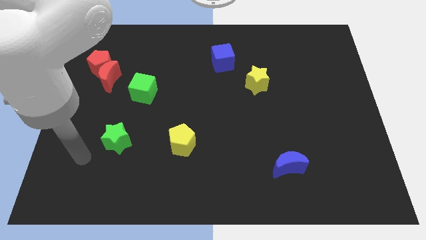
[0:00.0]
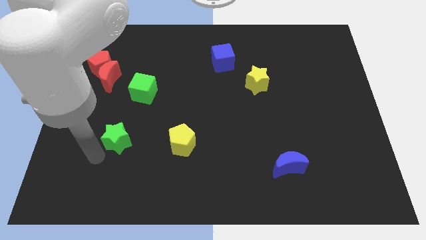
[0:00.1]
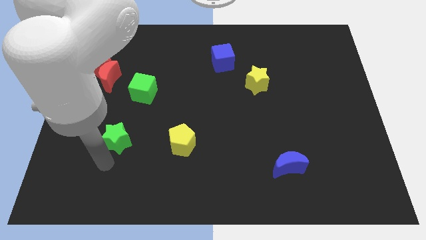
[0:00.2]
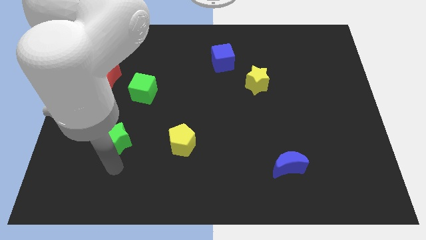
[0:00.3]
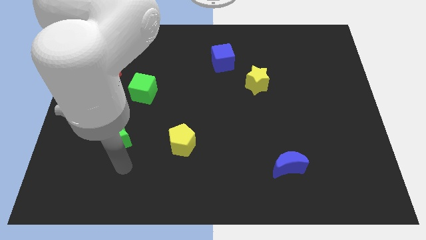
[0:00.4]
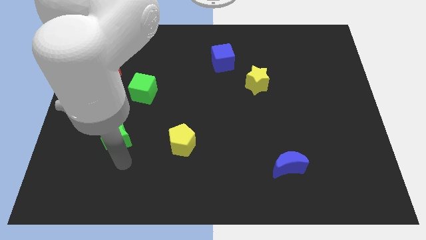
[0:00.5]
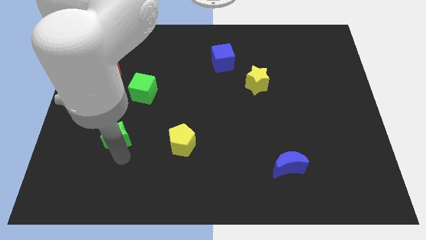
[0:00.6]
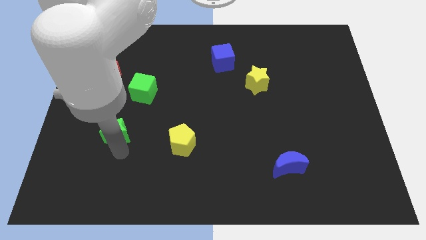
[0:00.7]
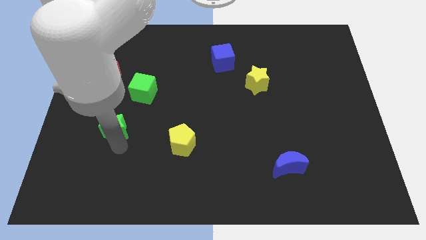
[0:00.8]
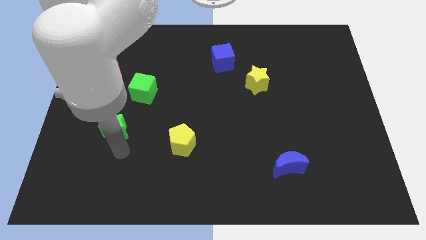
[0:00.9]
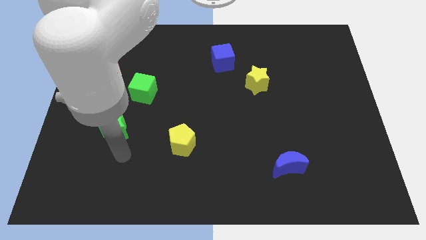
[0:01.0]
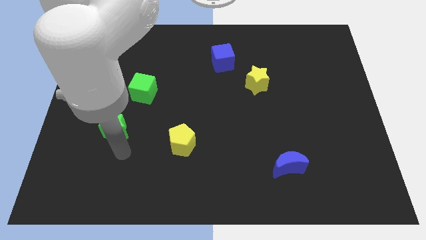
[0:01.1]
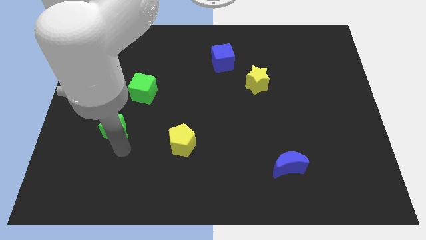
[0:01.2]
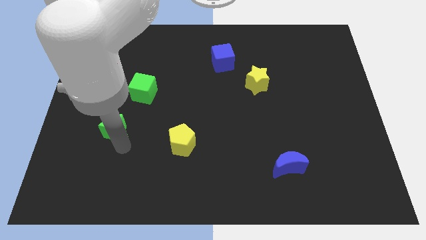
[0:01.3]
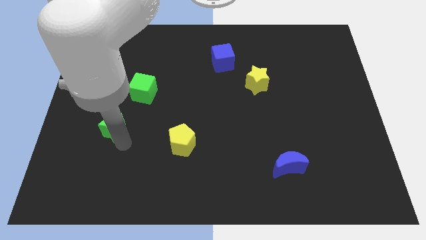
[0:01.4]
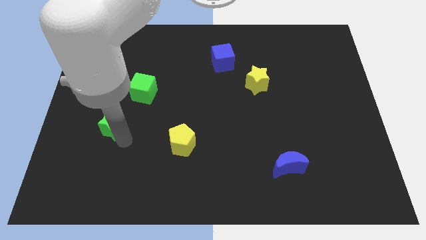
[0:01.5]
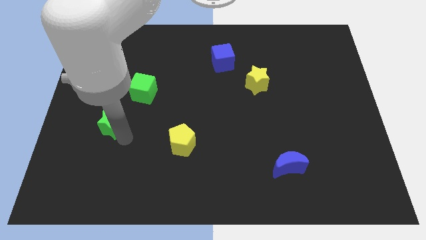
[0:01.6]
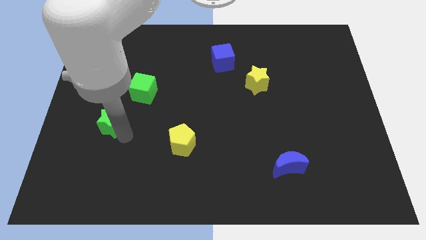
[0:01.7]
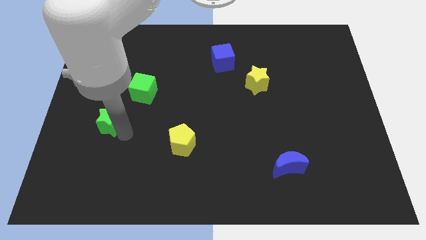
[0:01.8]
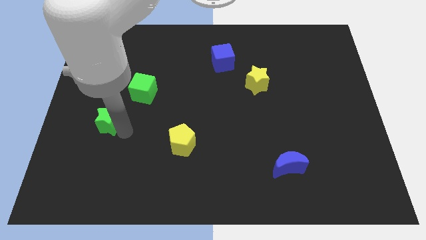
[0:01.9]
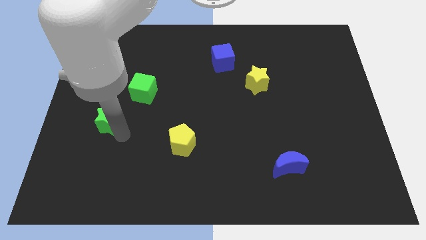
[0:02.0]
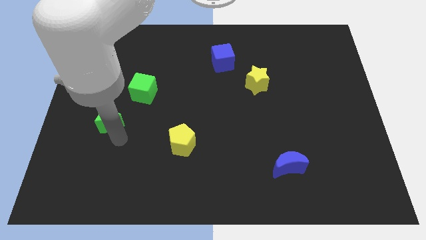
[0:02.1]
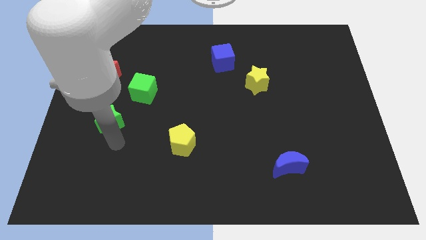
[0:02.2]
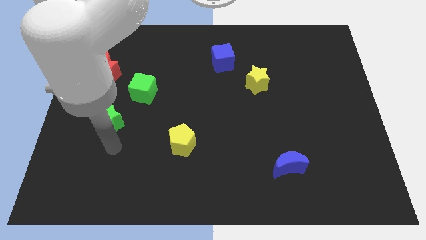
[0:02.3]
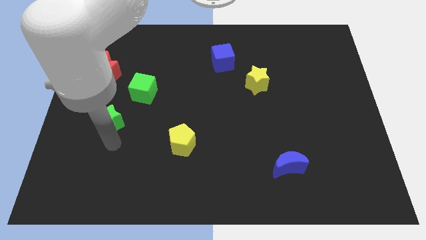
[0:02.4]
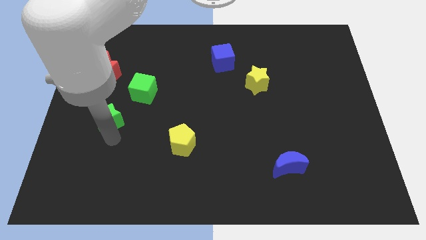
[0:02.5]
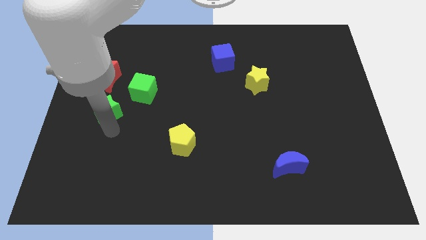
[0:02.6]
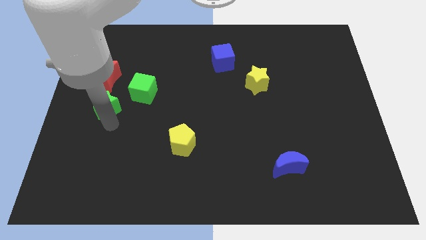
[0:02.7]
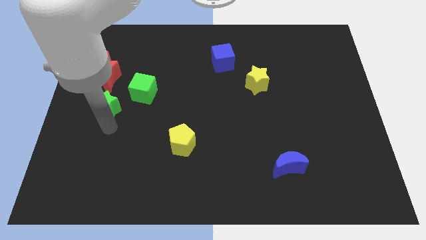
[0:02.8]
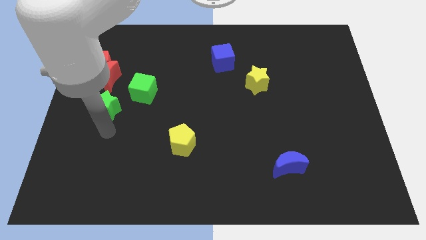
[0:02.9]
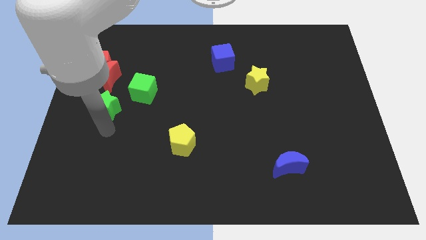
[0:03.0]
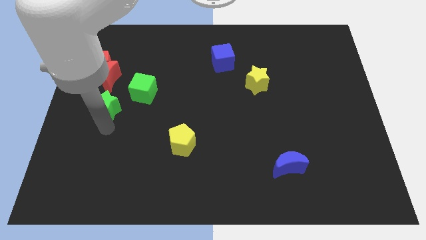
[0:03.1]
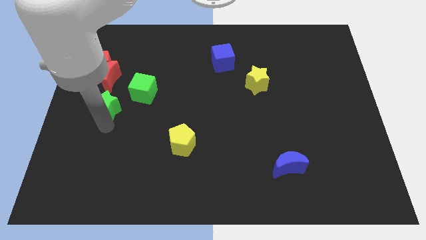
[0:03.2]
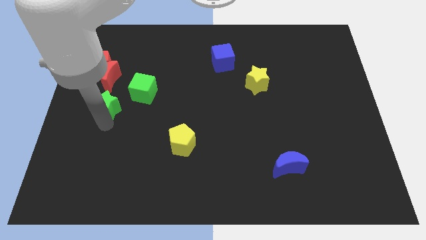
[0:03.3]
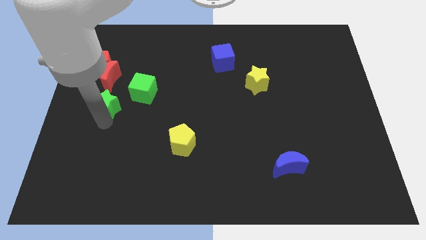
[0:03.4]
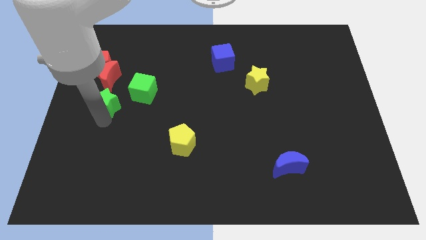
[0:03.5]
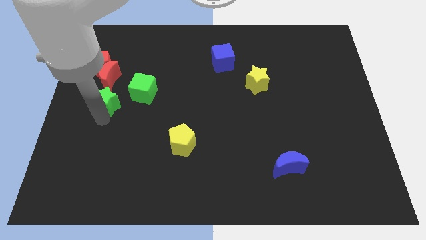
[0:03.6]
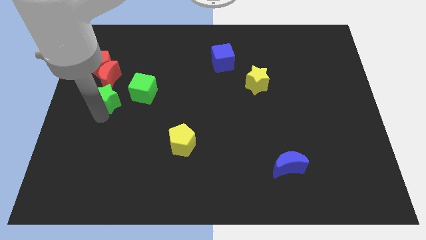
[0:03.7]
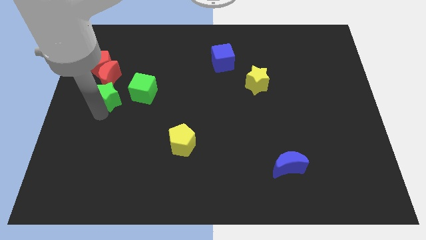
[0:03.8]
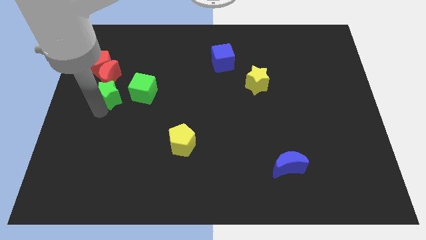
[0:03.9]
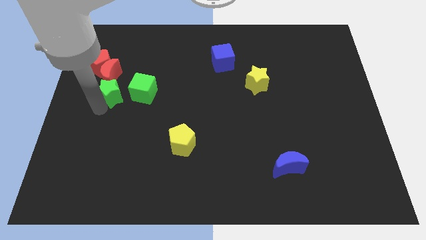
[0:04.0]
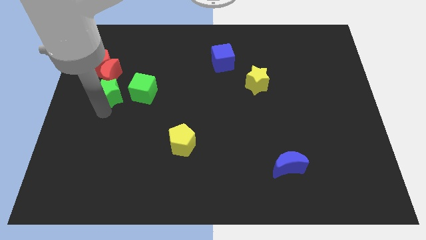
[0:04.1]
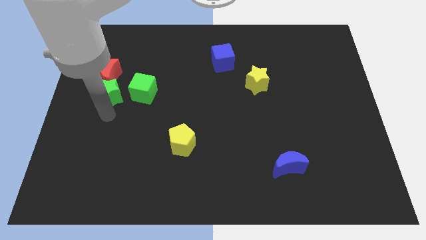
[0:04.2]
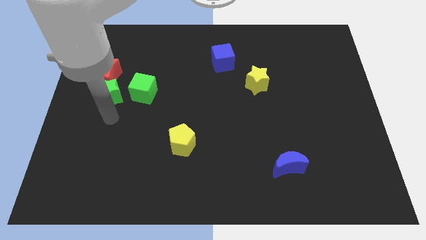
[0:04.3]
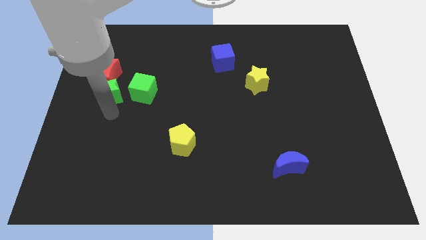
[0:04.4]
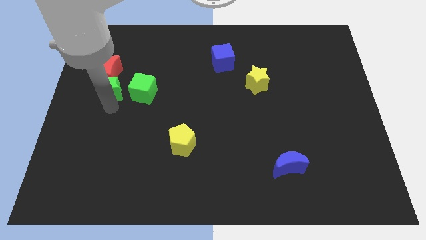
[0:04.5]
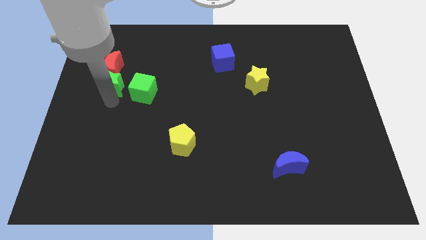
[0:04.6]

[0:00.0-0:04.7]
put the green star towards the red moon

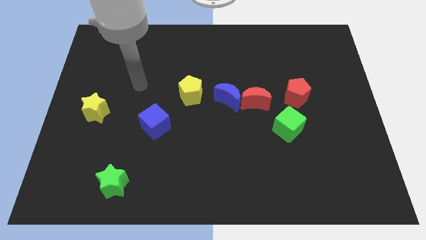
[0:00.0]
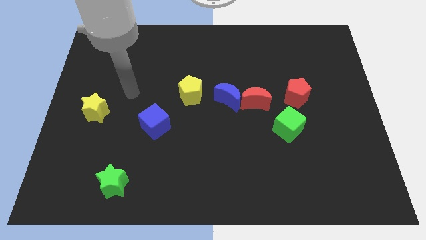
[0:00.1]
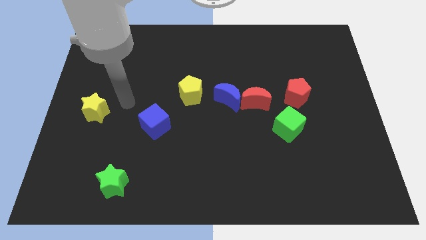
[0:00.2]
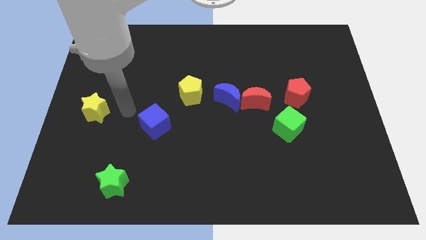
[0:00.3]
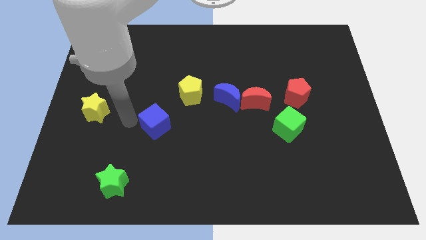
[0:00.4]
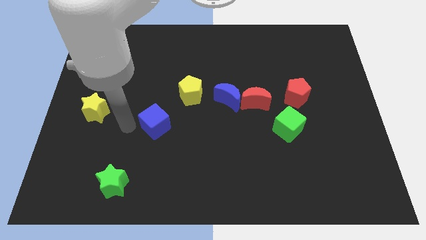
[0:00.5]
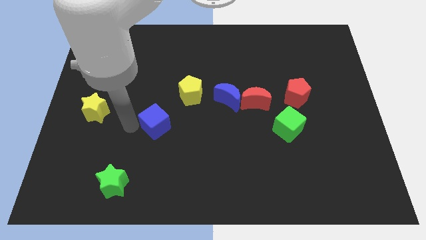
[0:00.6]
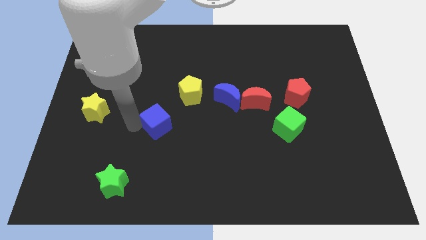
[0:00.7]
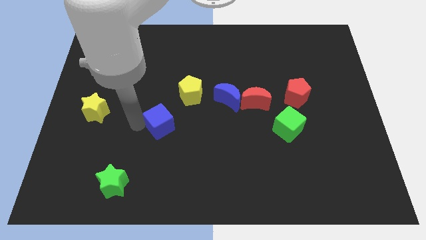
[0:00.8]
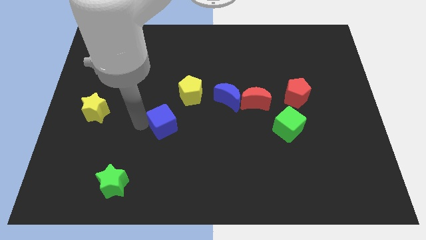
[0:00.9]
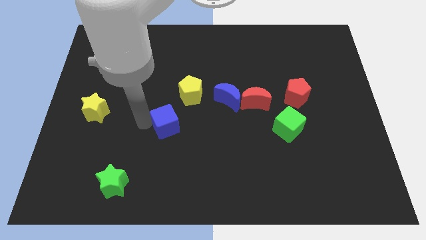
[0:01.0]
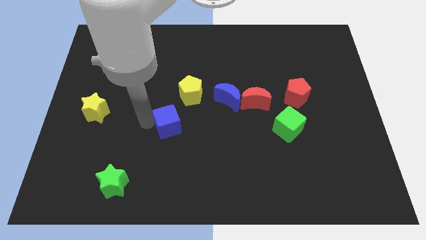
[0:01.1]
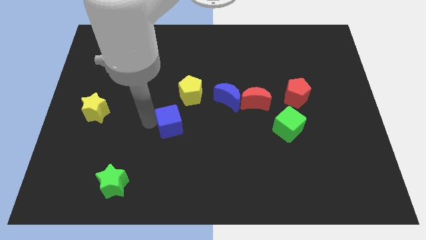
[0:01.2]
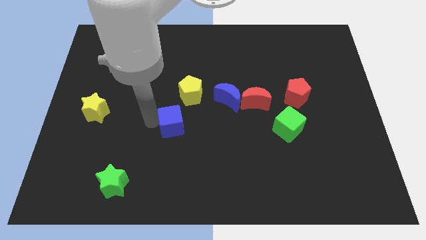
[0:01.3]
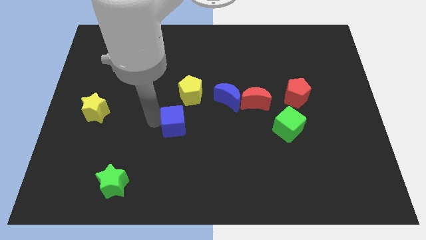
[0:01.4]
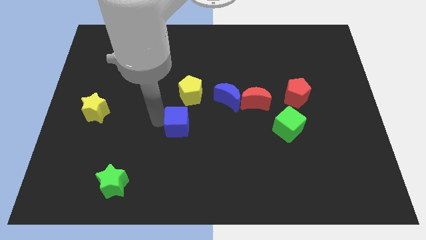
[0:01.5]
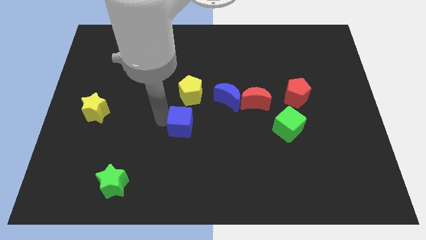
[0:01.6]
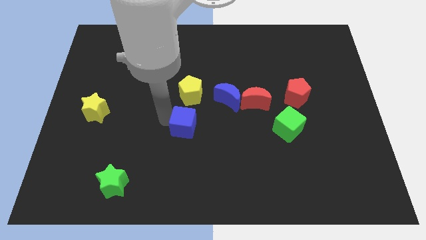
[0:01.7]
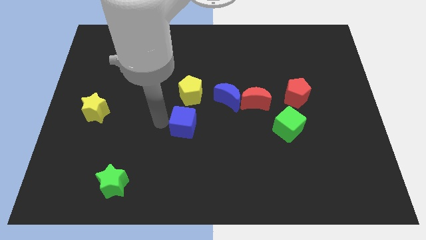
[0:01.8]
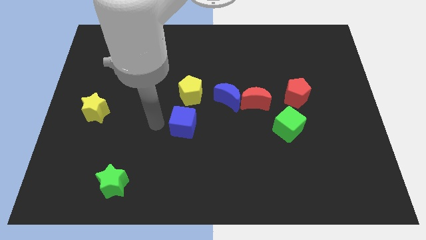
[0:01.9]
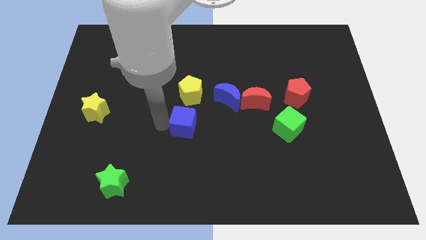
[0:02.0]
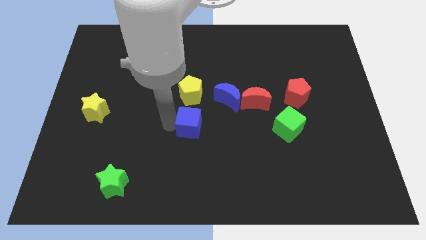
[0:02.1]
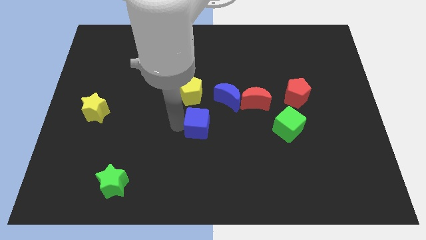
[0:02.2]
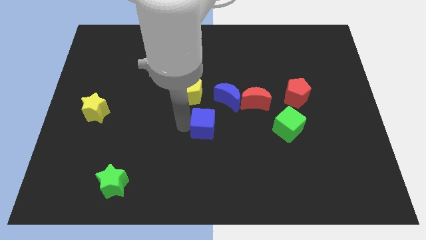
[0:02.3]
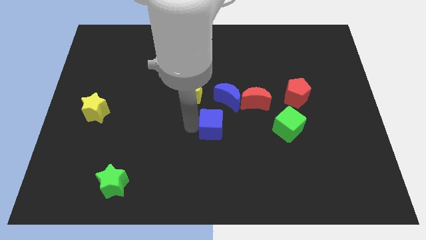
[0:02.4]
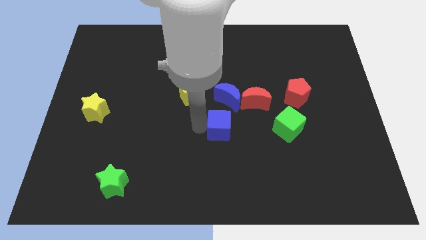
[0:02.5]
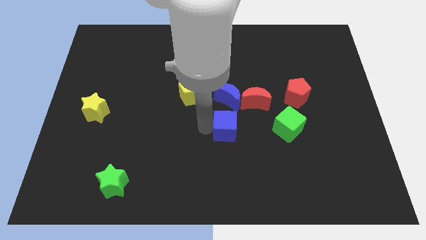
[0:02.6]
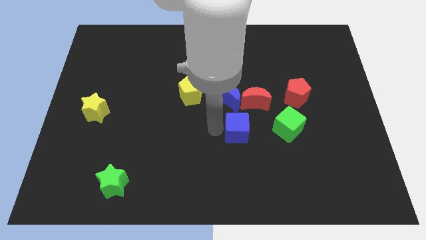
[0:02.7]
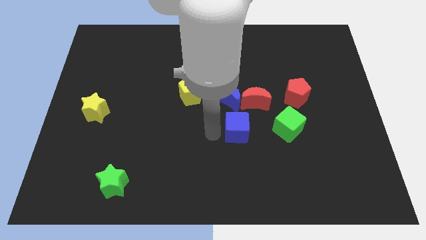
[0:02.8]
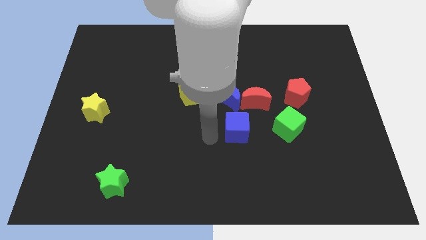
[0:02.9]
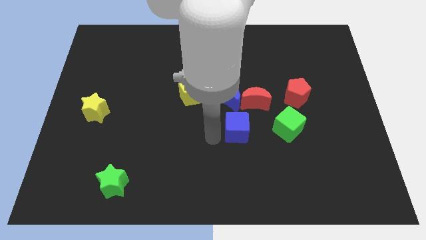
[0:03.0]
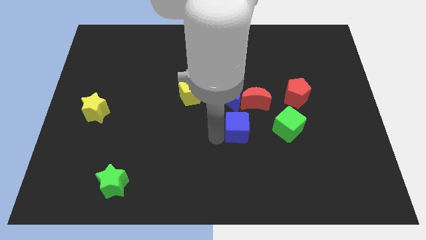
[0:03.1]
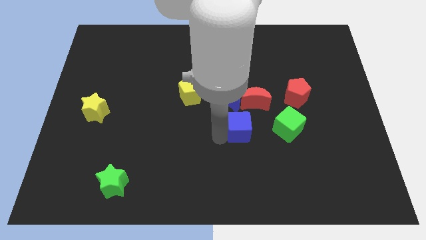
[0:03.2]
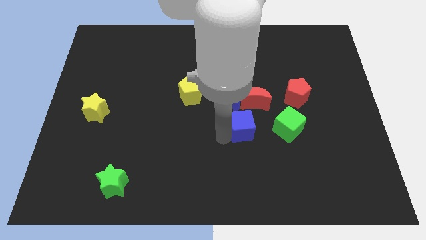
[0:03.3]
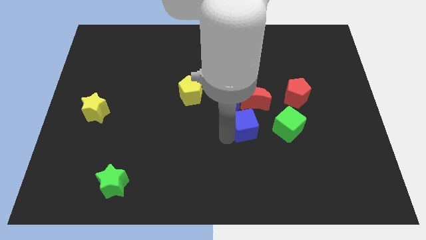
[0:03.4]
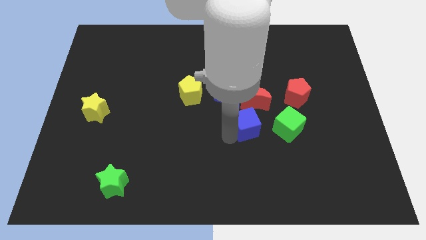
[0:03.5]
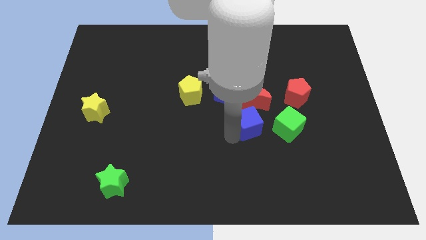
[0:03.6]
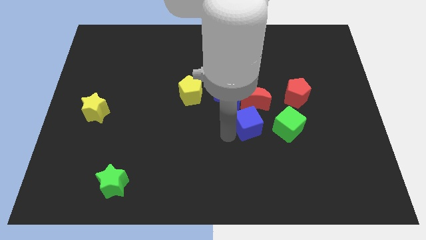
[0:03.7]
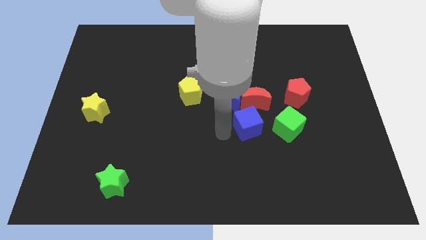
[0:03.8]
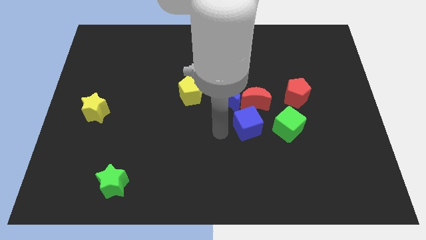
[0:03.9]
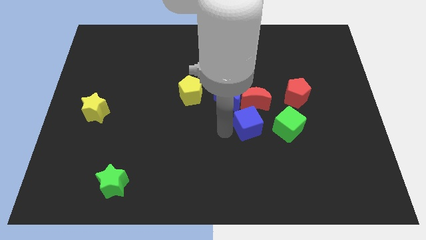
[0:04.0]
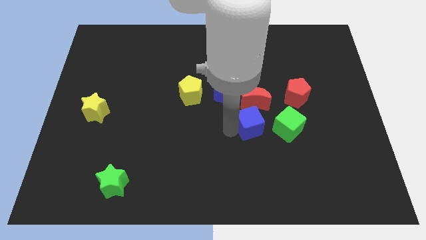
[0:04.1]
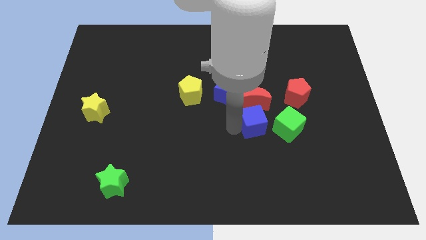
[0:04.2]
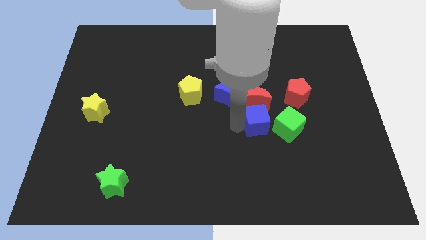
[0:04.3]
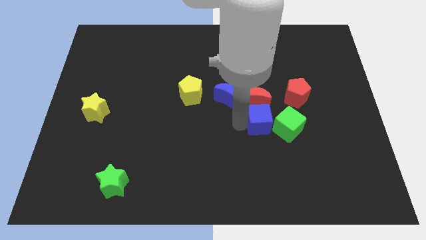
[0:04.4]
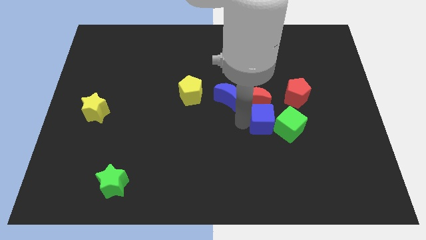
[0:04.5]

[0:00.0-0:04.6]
move the blue cube close to the green cube
